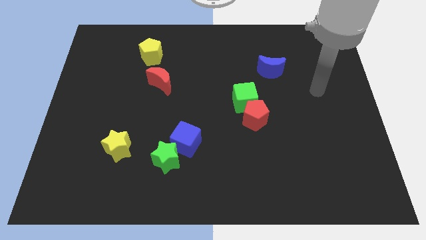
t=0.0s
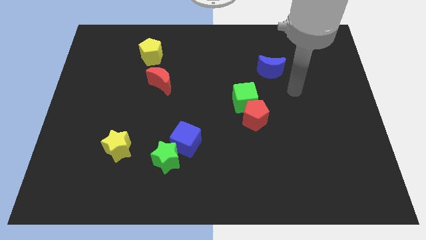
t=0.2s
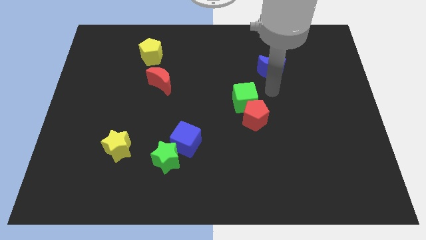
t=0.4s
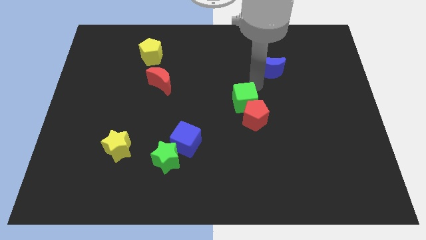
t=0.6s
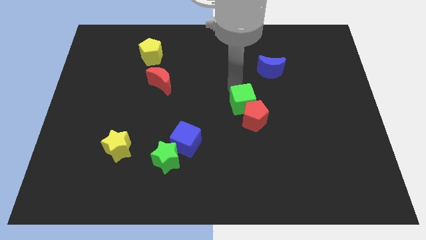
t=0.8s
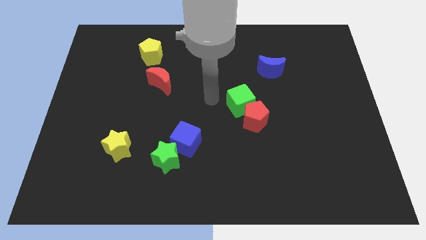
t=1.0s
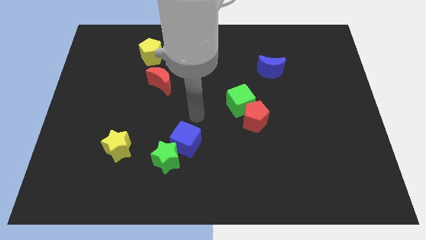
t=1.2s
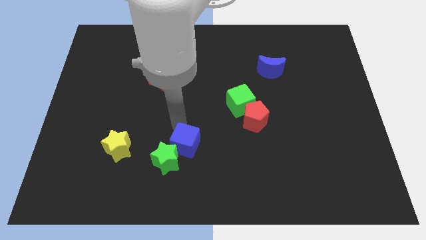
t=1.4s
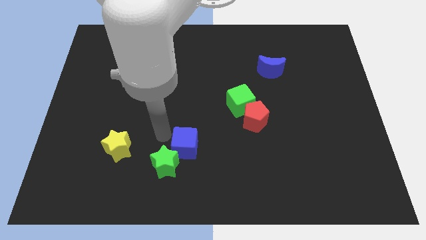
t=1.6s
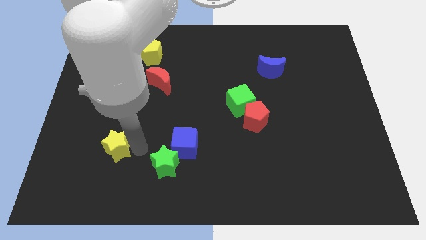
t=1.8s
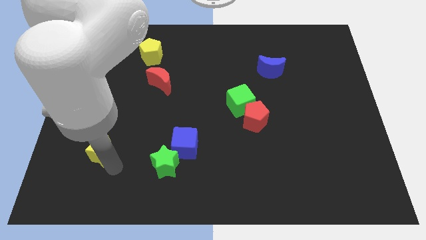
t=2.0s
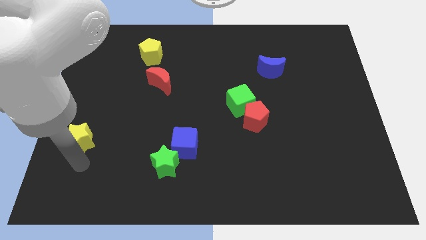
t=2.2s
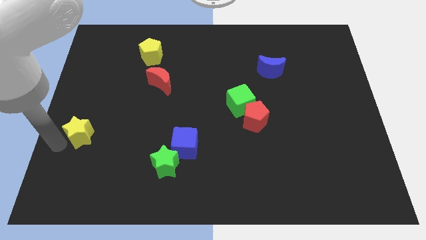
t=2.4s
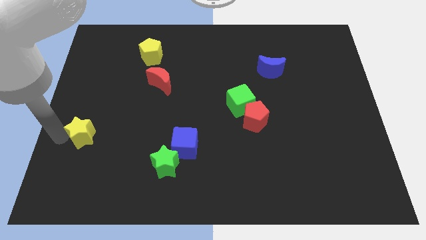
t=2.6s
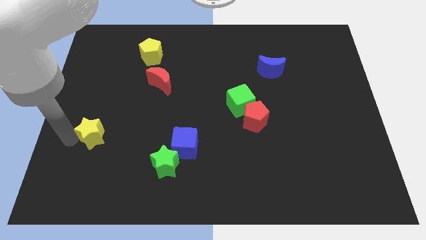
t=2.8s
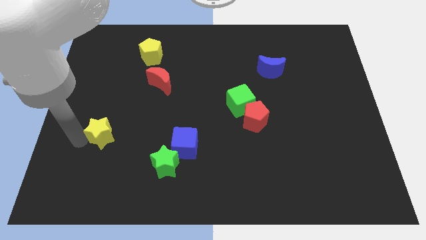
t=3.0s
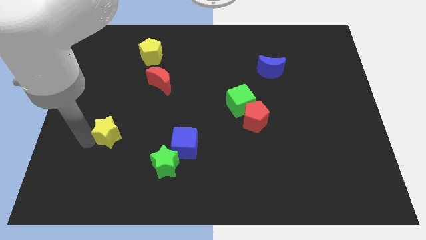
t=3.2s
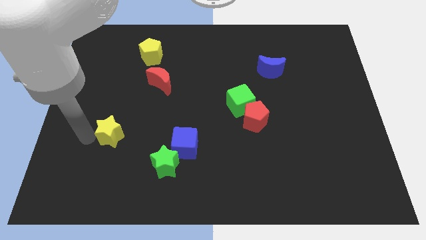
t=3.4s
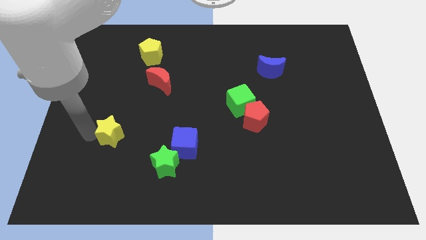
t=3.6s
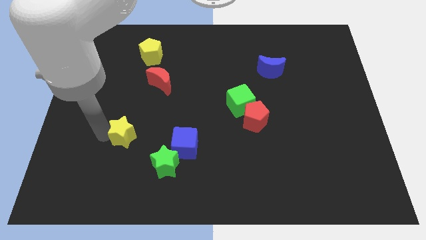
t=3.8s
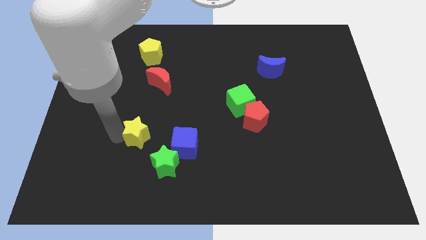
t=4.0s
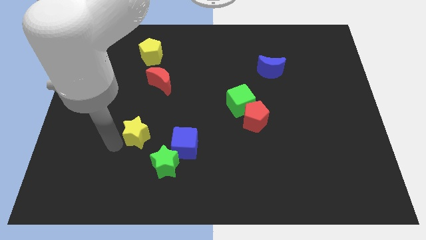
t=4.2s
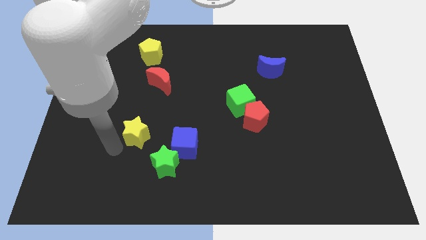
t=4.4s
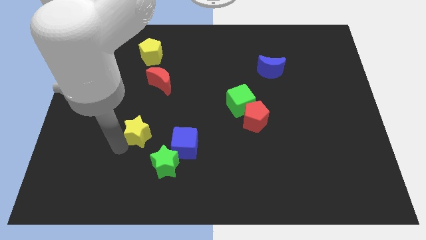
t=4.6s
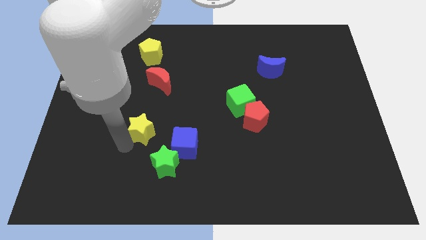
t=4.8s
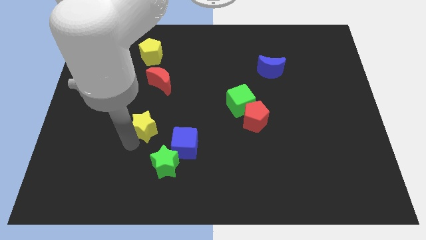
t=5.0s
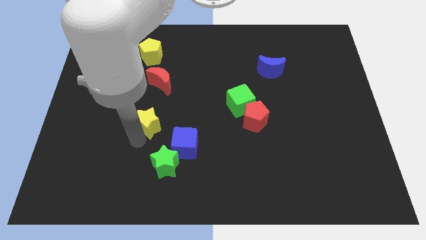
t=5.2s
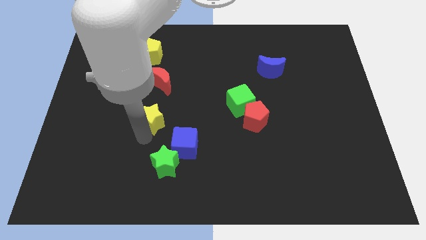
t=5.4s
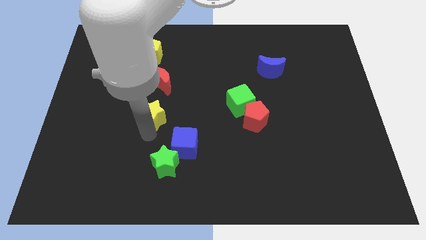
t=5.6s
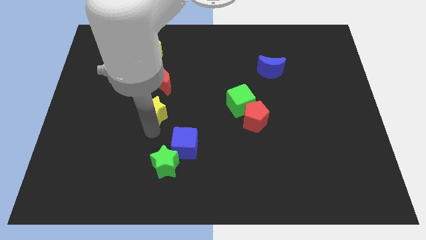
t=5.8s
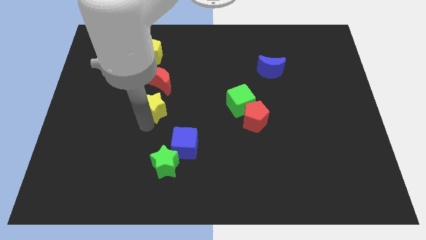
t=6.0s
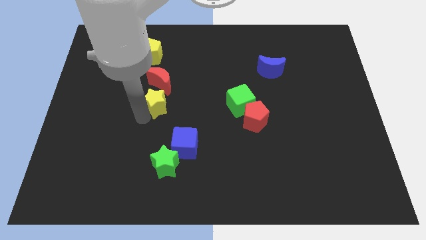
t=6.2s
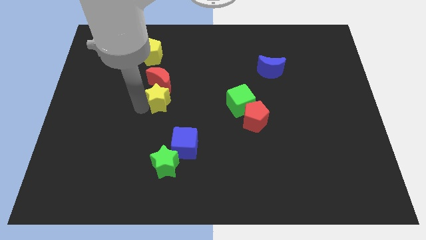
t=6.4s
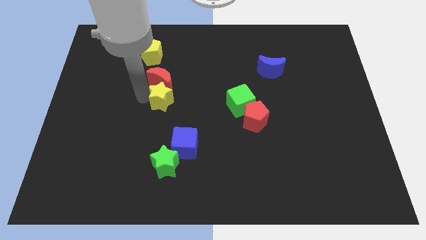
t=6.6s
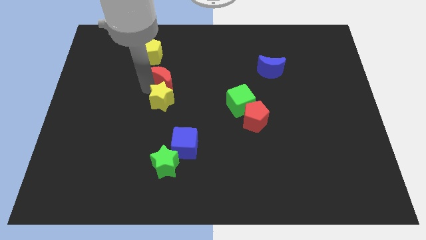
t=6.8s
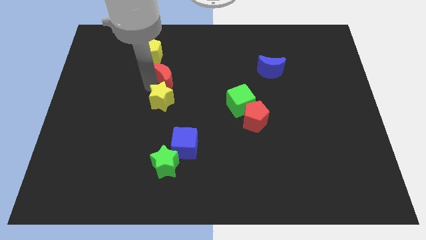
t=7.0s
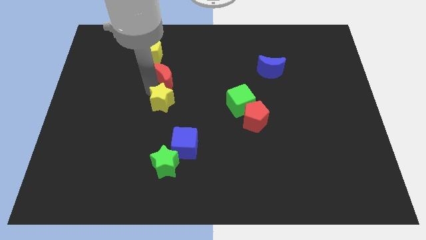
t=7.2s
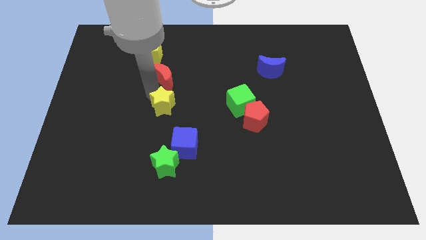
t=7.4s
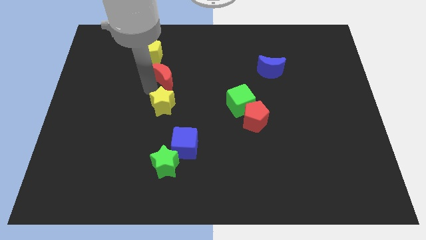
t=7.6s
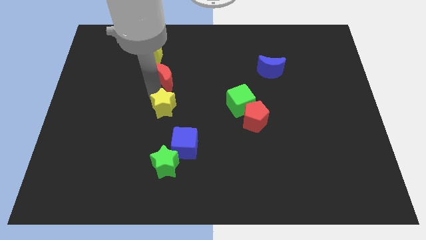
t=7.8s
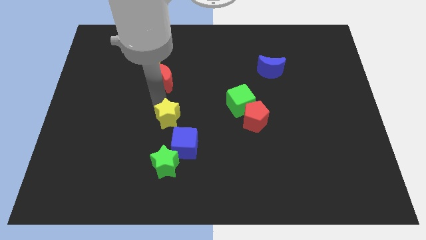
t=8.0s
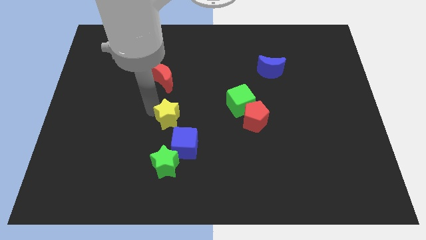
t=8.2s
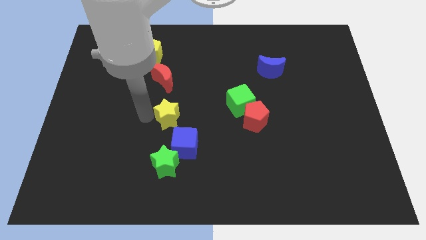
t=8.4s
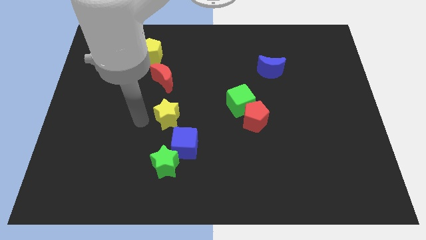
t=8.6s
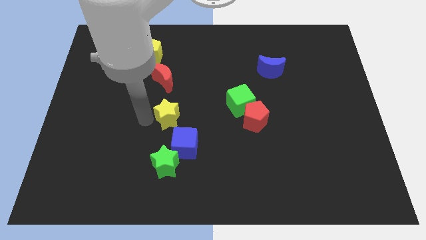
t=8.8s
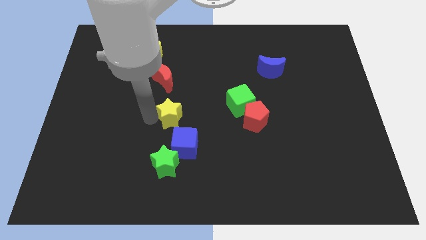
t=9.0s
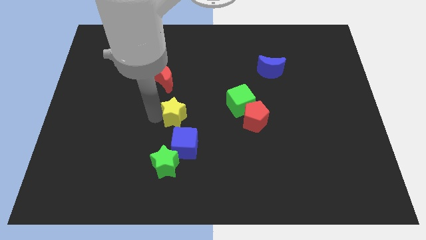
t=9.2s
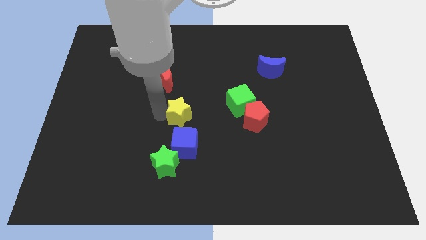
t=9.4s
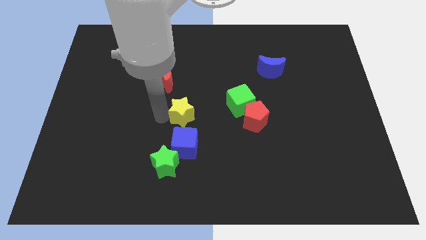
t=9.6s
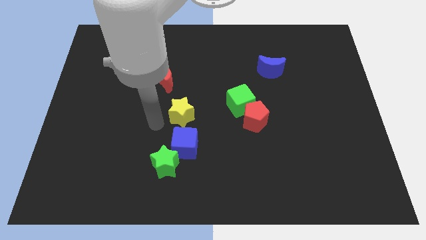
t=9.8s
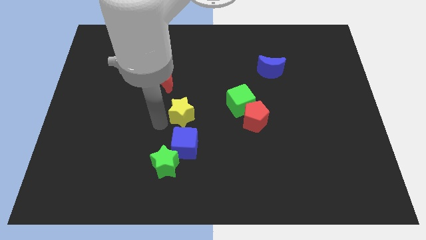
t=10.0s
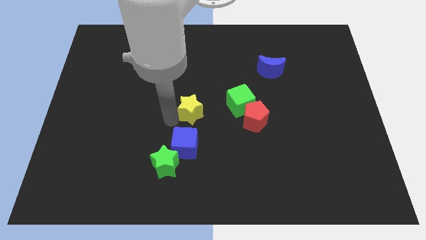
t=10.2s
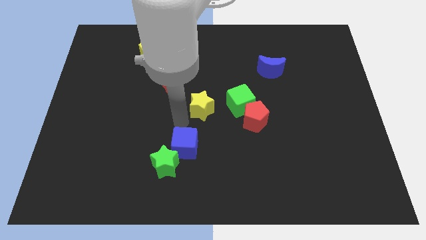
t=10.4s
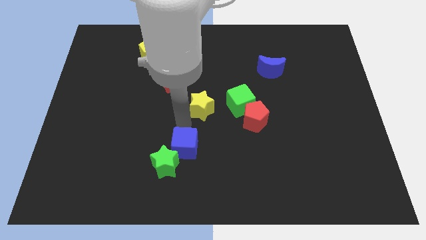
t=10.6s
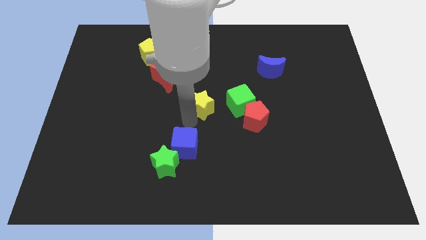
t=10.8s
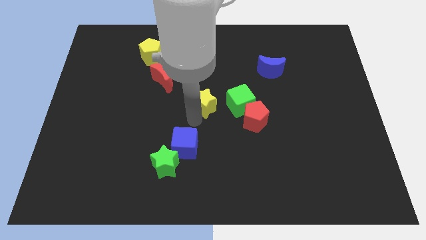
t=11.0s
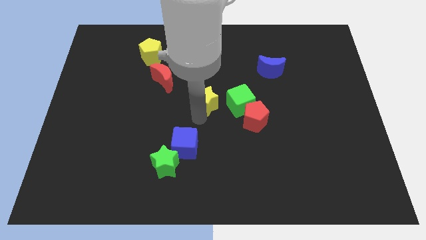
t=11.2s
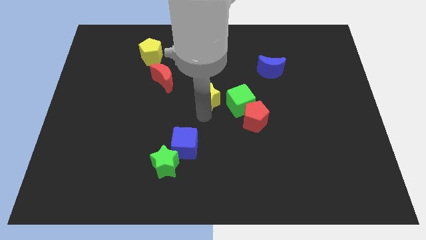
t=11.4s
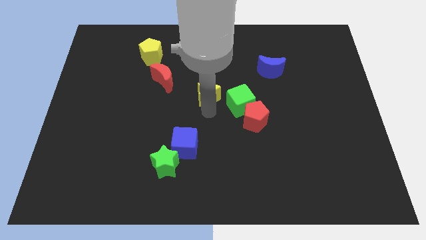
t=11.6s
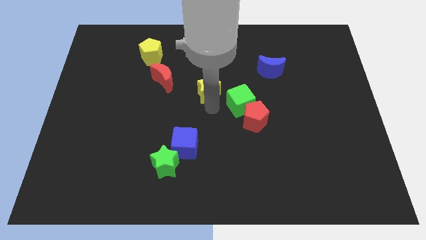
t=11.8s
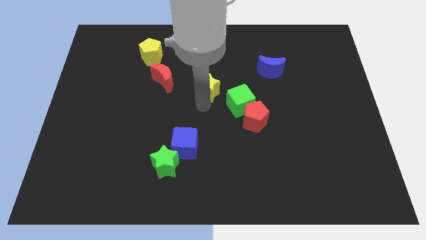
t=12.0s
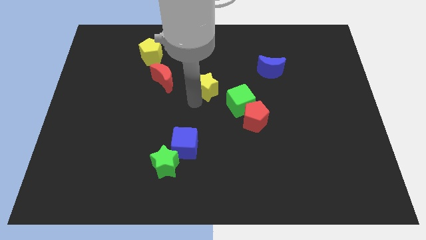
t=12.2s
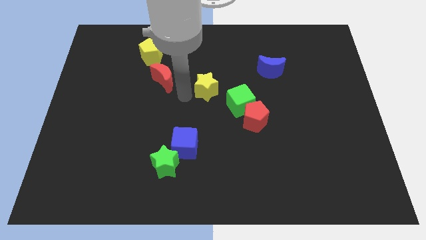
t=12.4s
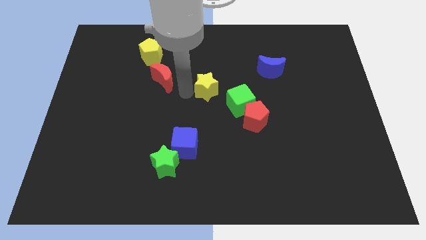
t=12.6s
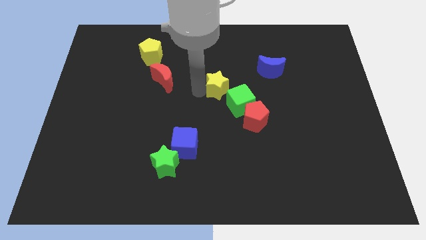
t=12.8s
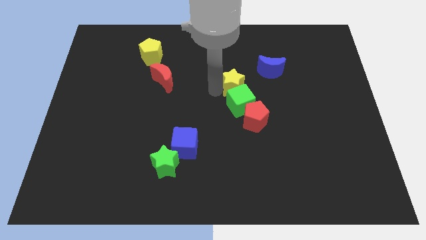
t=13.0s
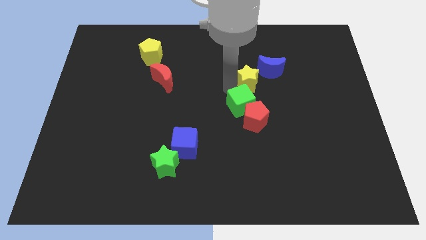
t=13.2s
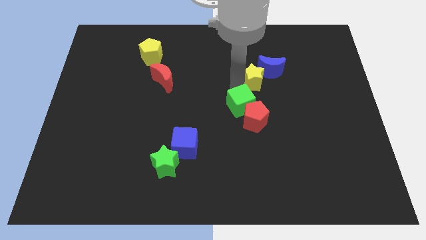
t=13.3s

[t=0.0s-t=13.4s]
move the yellow star next to the blue moon

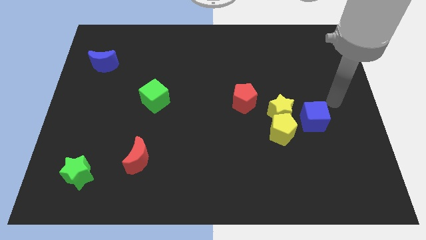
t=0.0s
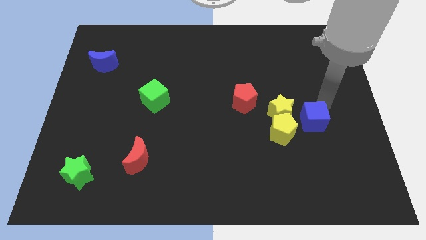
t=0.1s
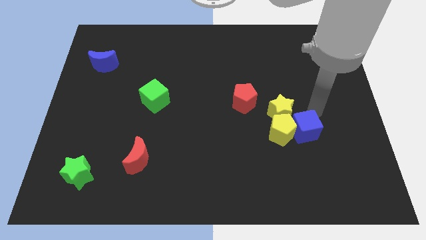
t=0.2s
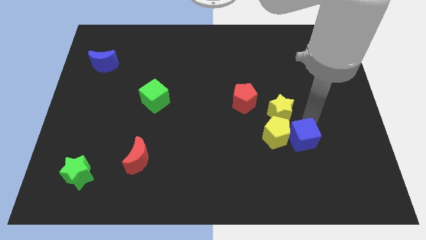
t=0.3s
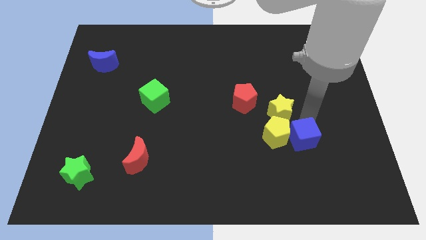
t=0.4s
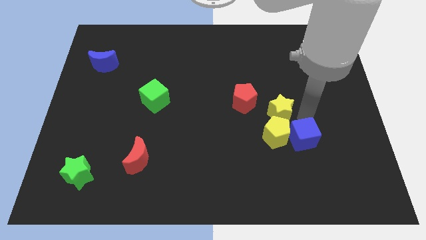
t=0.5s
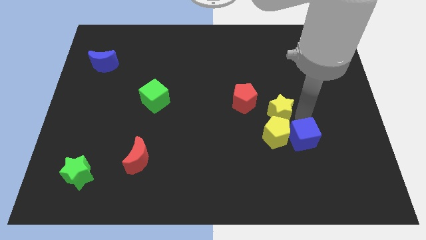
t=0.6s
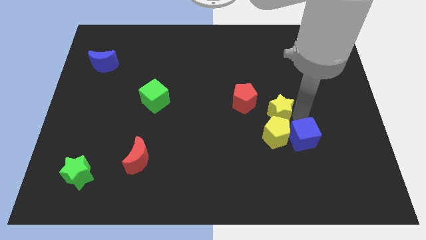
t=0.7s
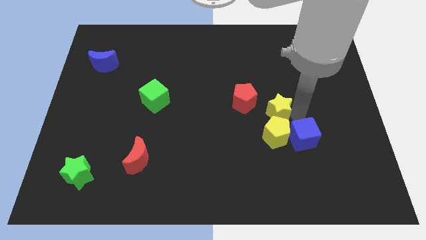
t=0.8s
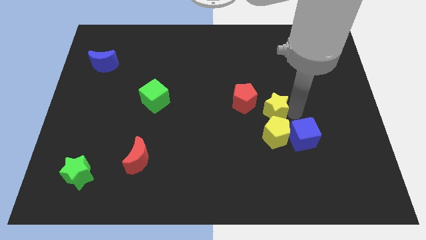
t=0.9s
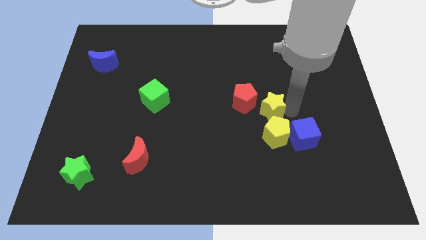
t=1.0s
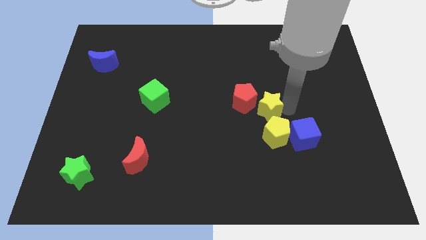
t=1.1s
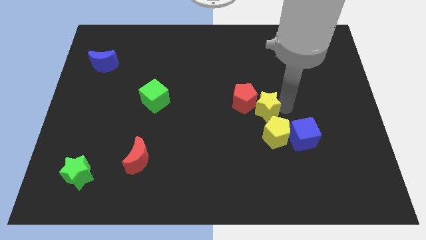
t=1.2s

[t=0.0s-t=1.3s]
slide the yellow star next to the red pentagon
